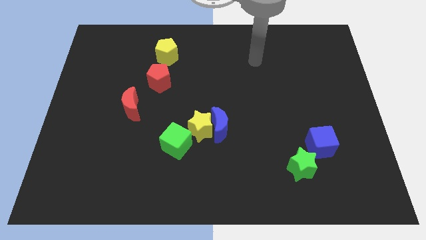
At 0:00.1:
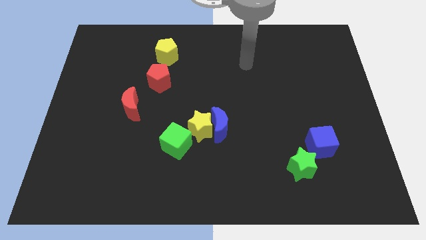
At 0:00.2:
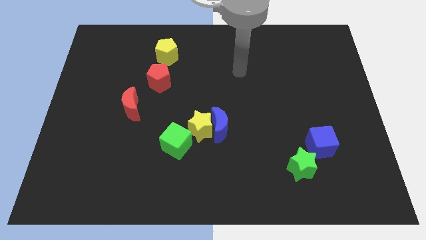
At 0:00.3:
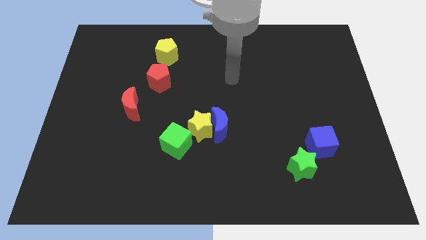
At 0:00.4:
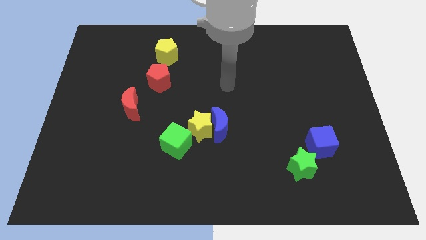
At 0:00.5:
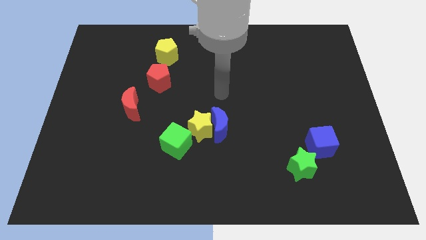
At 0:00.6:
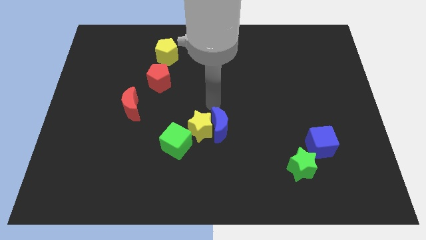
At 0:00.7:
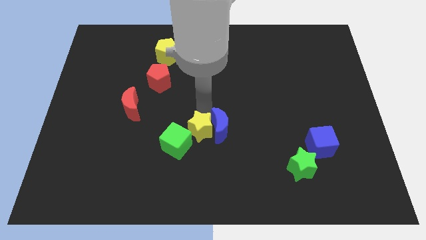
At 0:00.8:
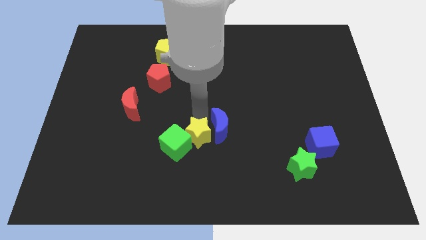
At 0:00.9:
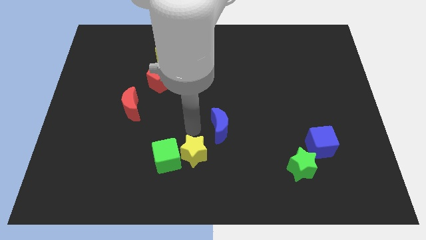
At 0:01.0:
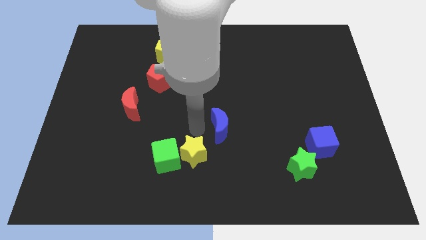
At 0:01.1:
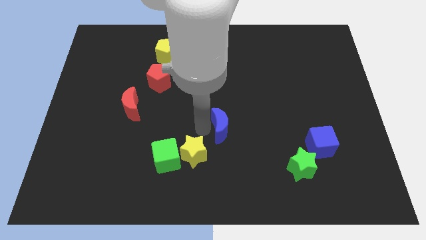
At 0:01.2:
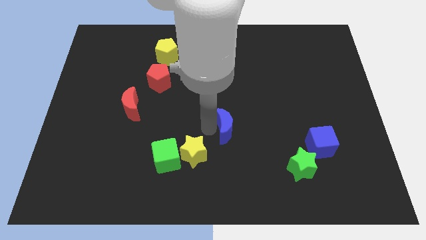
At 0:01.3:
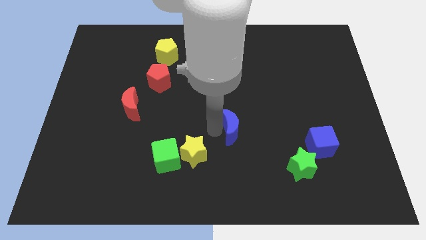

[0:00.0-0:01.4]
separate the blue moon from the yellow star

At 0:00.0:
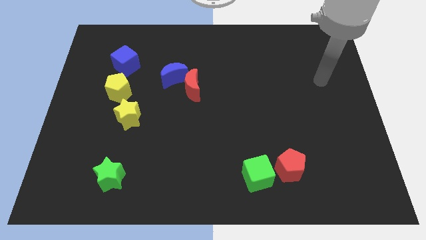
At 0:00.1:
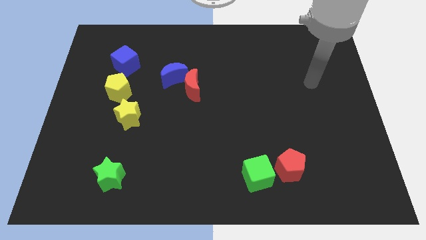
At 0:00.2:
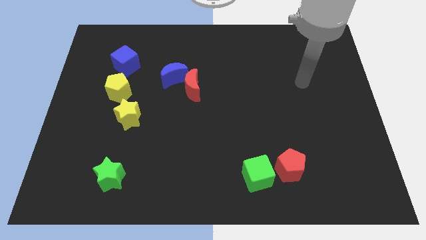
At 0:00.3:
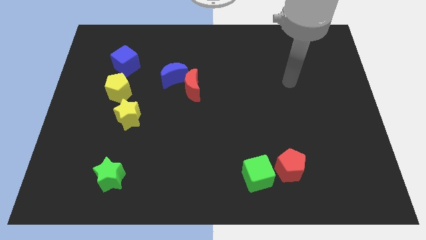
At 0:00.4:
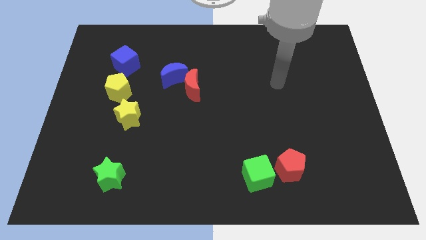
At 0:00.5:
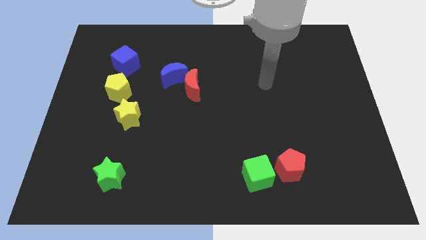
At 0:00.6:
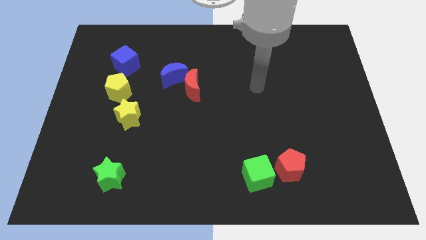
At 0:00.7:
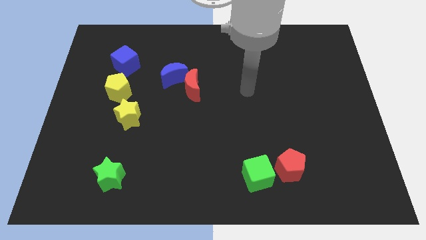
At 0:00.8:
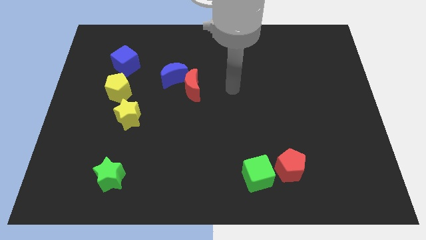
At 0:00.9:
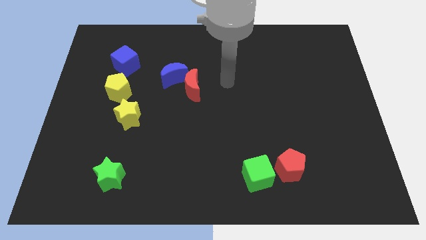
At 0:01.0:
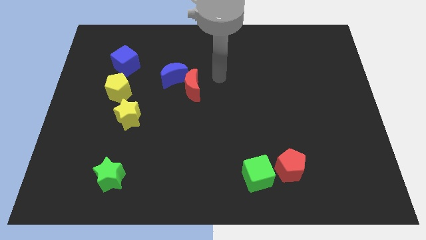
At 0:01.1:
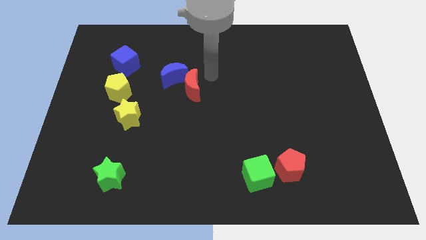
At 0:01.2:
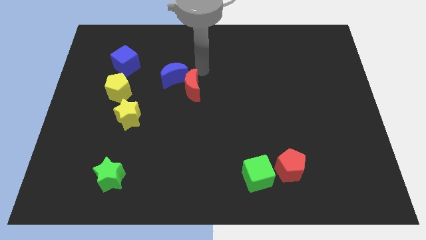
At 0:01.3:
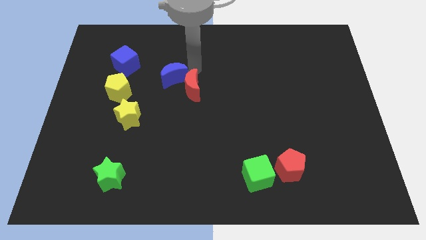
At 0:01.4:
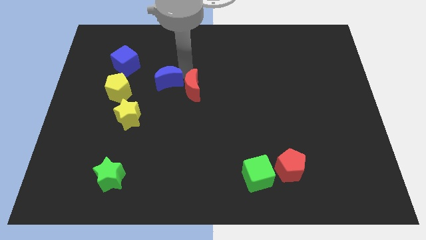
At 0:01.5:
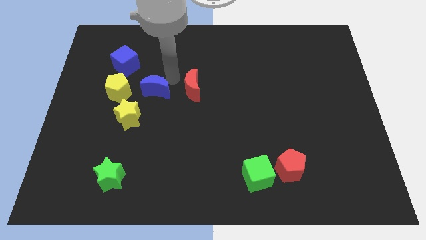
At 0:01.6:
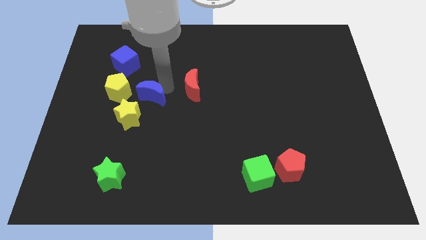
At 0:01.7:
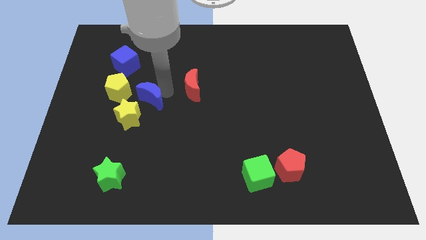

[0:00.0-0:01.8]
separate the red moon from the blue moon

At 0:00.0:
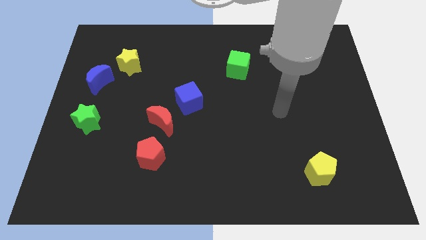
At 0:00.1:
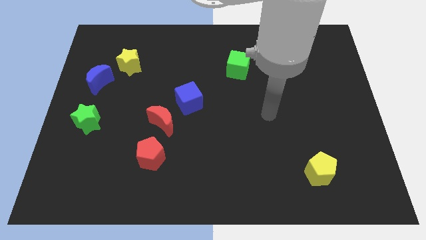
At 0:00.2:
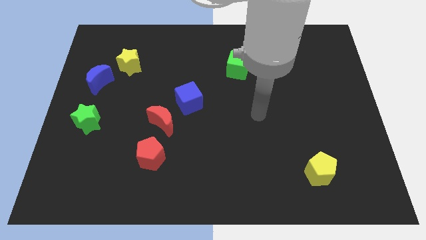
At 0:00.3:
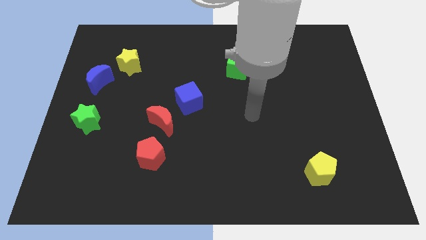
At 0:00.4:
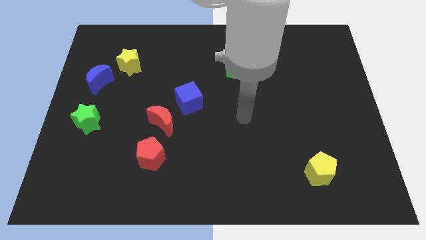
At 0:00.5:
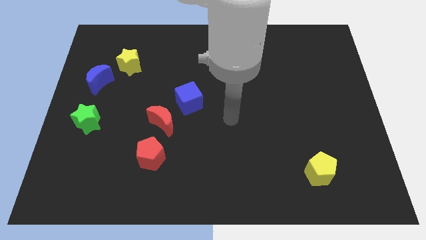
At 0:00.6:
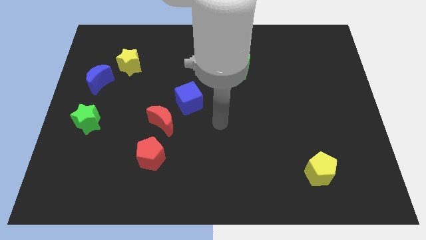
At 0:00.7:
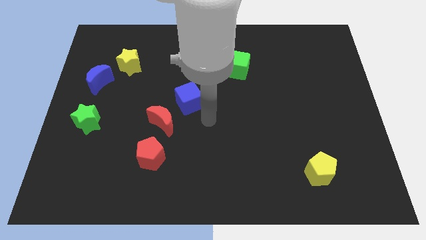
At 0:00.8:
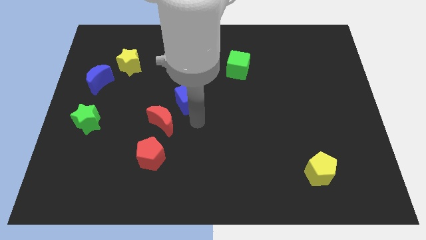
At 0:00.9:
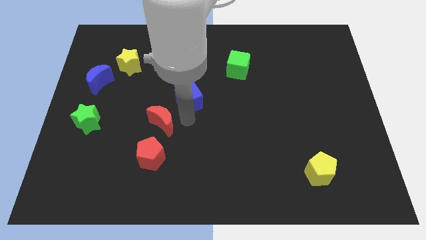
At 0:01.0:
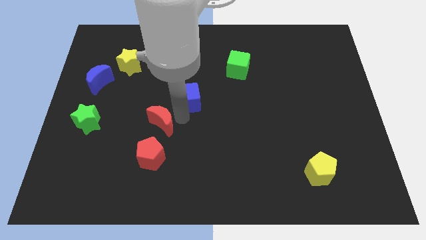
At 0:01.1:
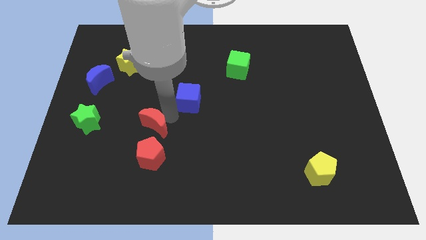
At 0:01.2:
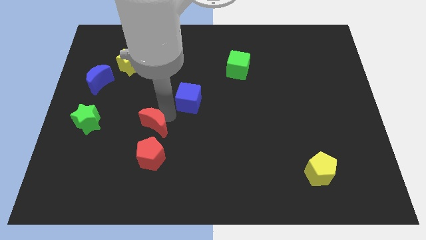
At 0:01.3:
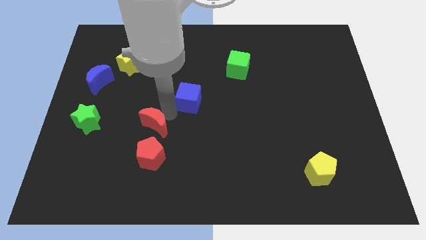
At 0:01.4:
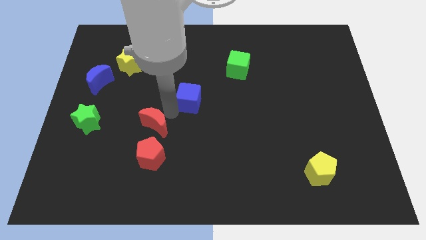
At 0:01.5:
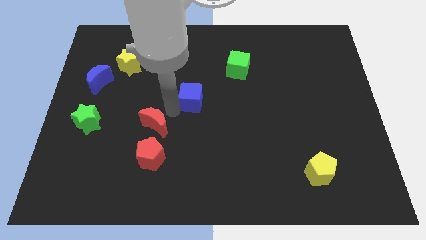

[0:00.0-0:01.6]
separate the blue cube from the red moon

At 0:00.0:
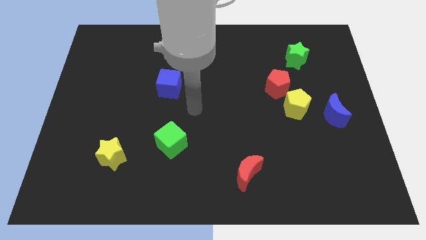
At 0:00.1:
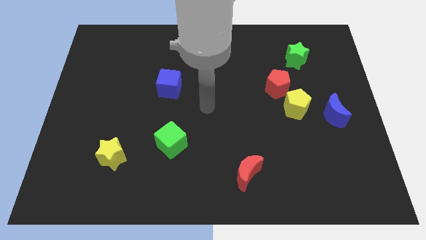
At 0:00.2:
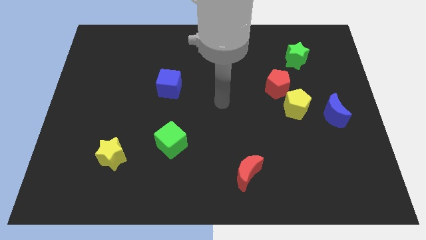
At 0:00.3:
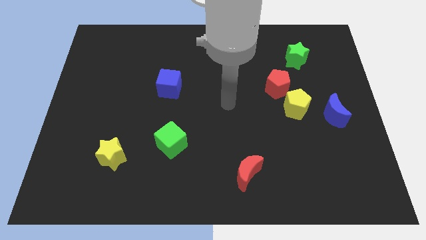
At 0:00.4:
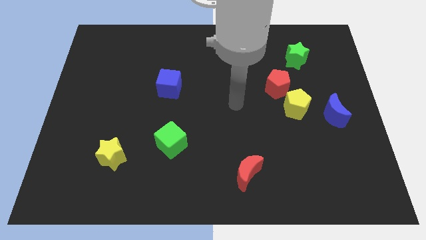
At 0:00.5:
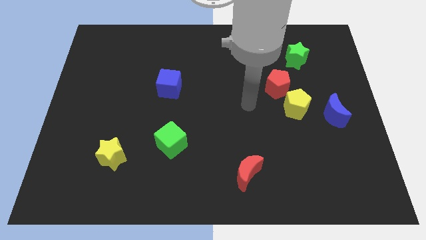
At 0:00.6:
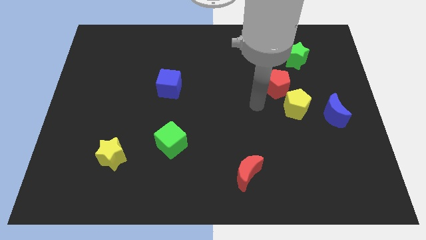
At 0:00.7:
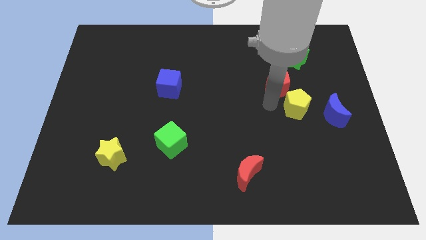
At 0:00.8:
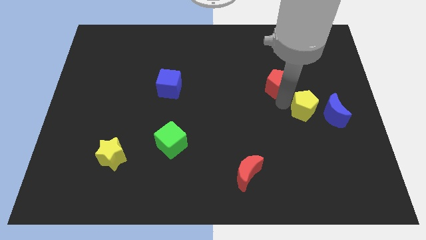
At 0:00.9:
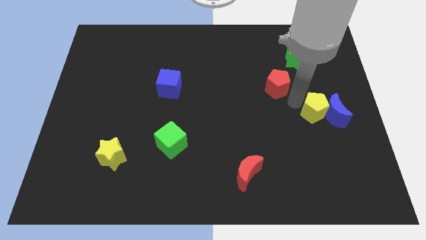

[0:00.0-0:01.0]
separate the red pentagon from the yellow pentagon

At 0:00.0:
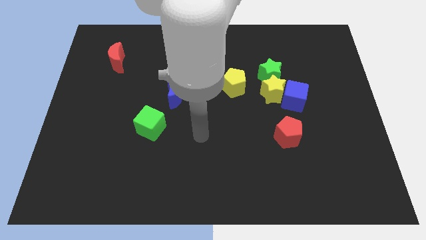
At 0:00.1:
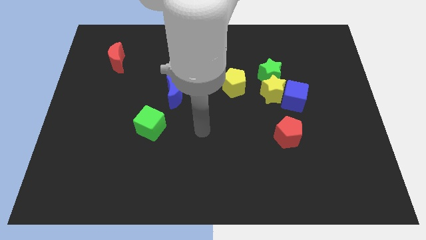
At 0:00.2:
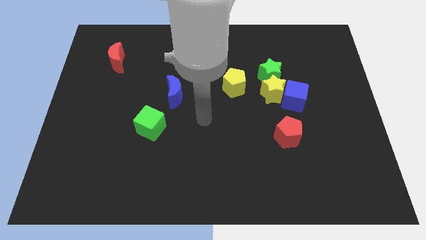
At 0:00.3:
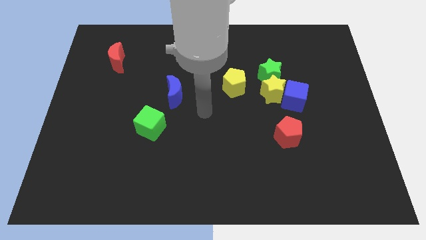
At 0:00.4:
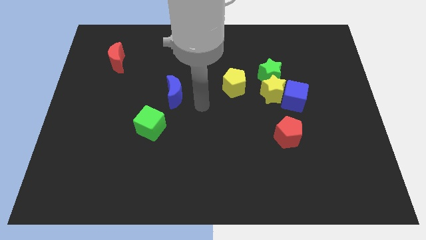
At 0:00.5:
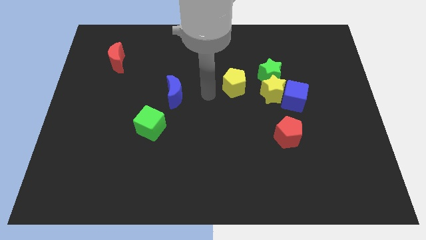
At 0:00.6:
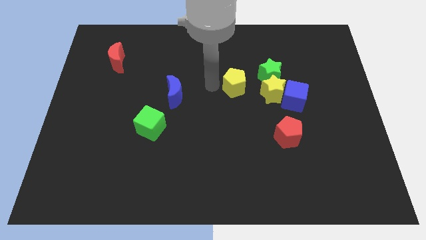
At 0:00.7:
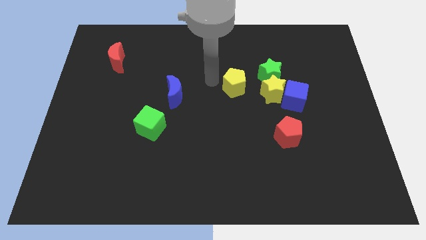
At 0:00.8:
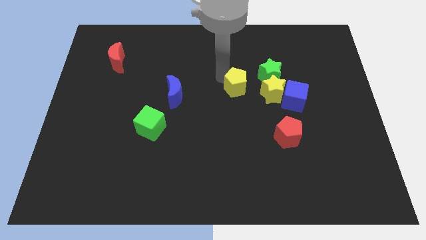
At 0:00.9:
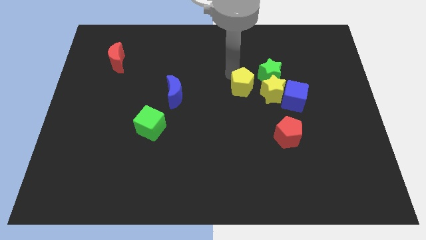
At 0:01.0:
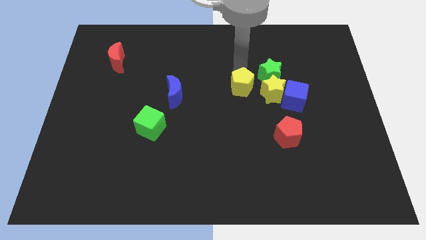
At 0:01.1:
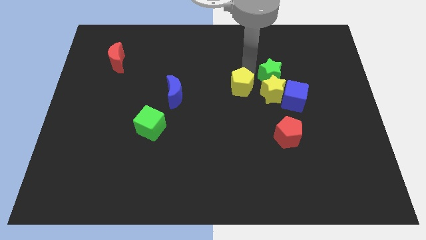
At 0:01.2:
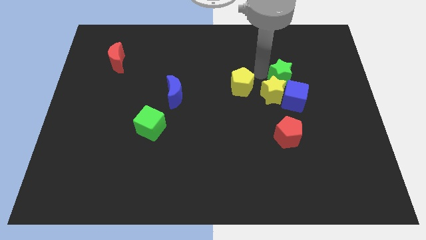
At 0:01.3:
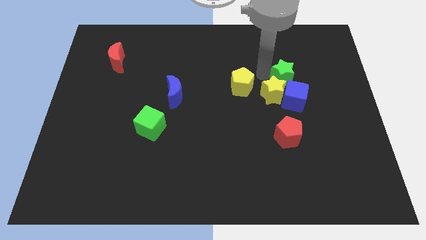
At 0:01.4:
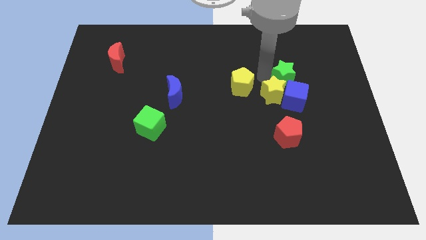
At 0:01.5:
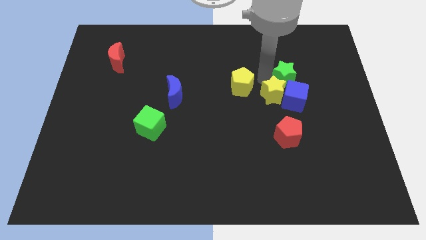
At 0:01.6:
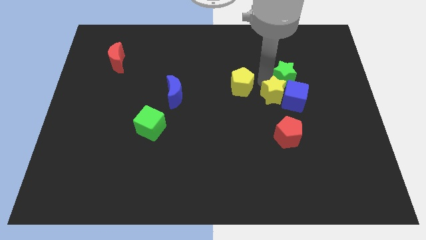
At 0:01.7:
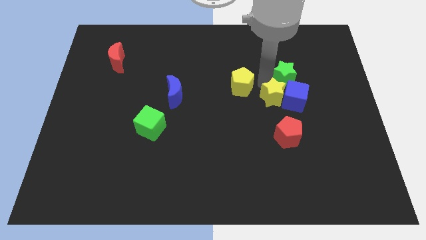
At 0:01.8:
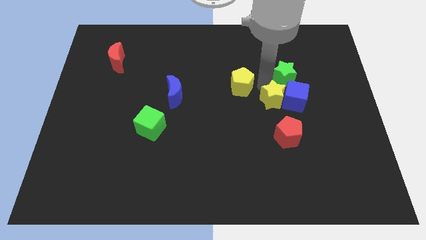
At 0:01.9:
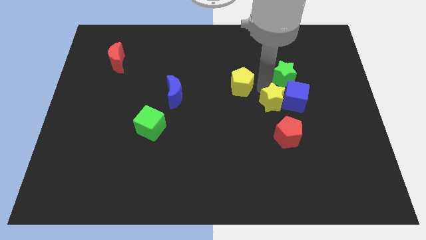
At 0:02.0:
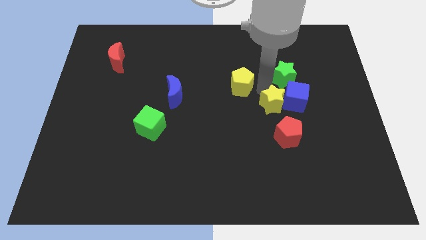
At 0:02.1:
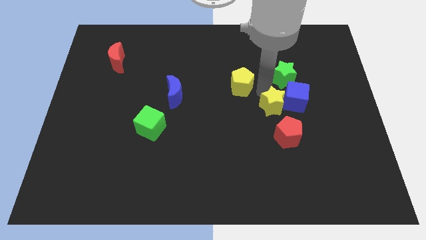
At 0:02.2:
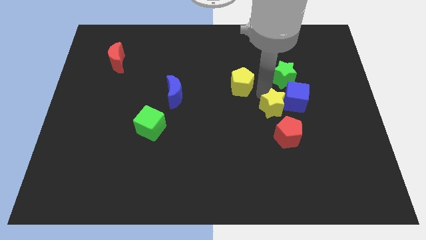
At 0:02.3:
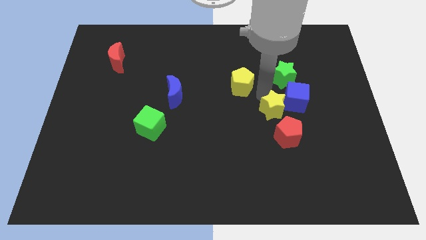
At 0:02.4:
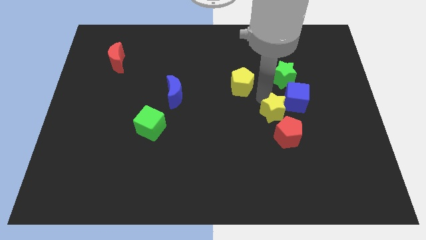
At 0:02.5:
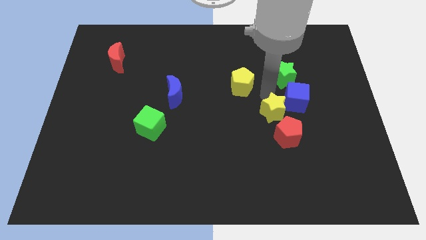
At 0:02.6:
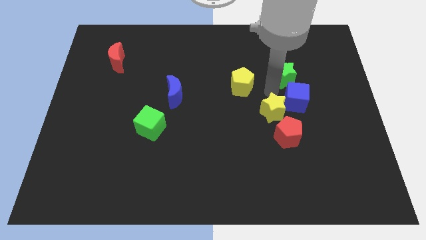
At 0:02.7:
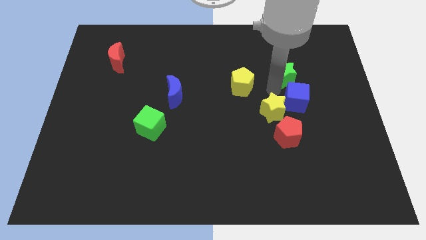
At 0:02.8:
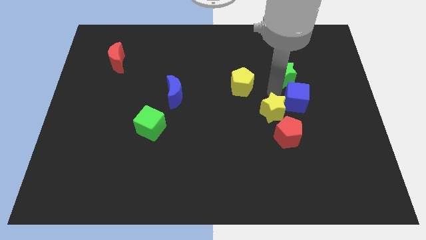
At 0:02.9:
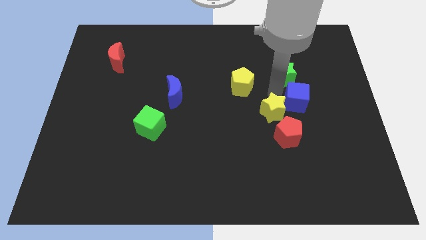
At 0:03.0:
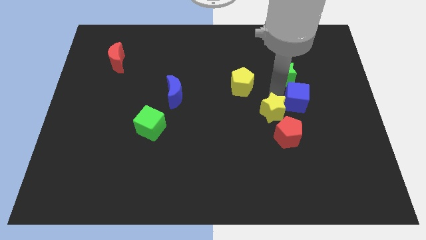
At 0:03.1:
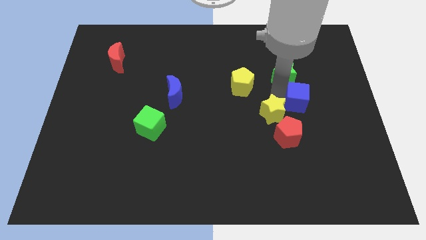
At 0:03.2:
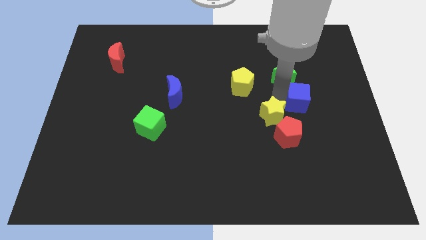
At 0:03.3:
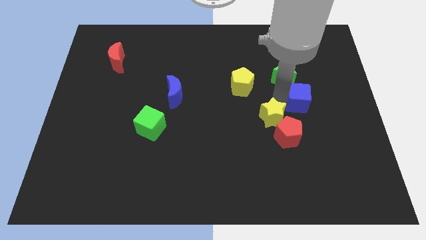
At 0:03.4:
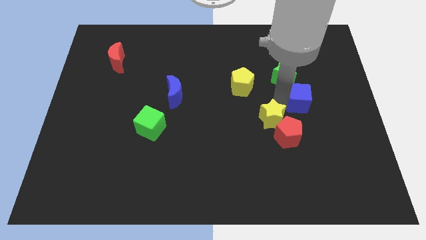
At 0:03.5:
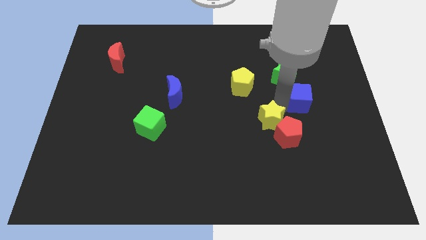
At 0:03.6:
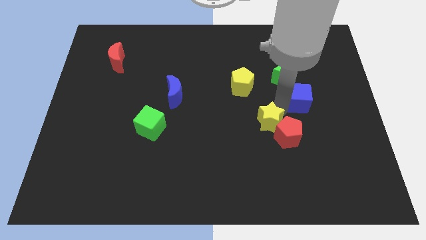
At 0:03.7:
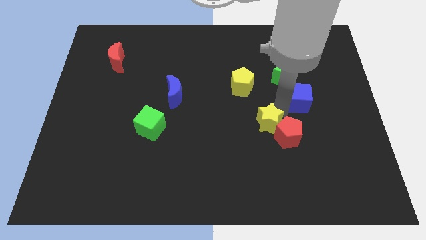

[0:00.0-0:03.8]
separate the yellow star from the green star, blue cube, and yellow pentagon
